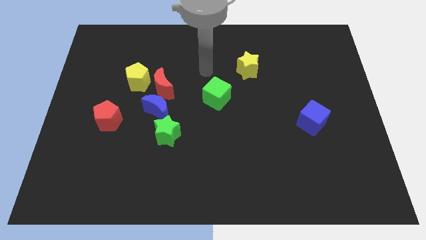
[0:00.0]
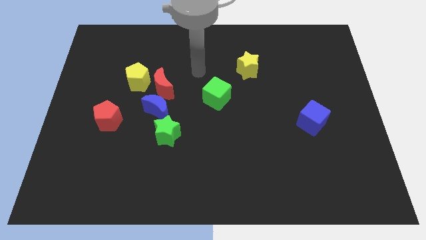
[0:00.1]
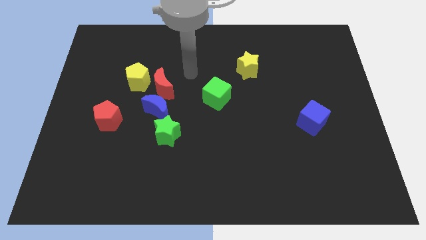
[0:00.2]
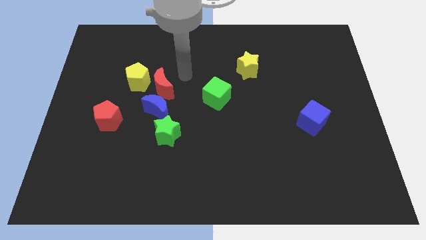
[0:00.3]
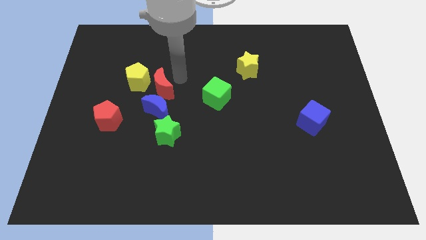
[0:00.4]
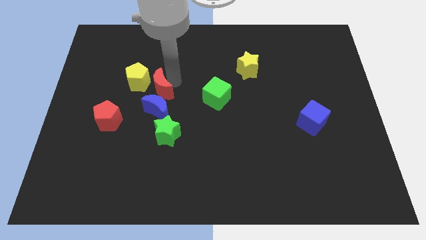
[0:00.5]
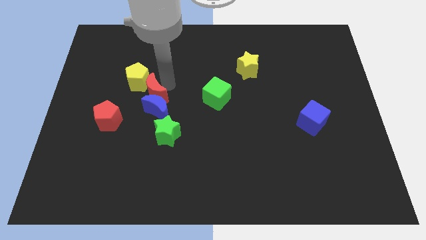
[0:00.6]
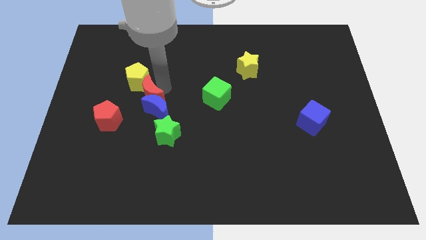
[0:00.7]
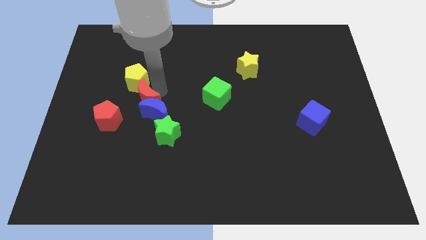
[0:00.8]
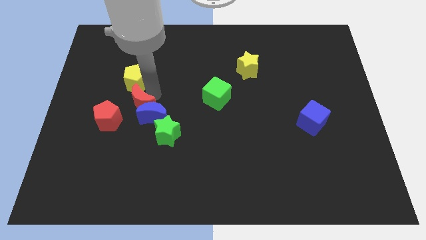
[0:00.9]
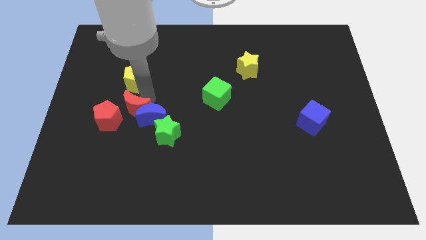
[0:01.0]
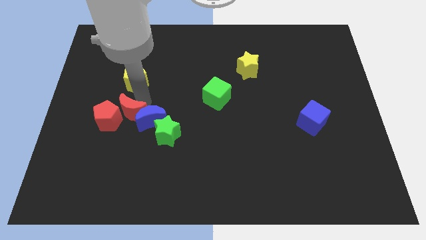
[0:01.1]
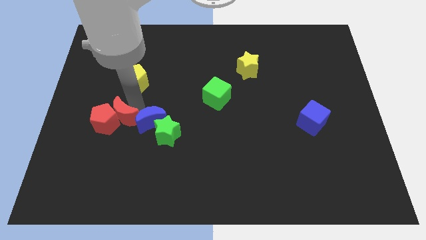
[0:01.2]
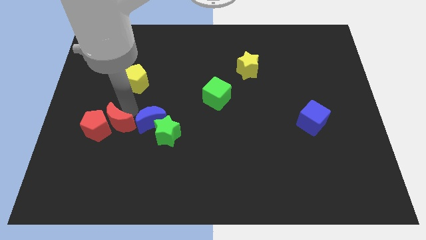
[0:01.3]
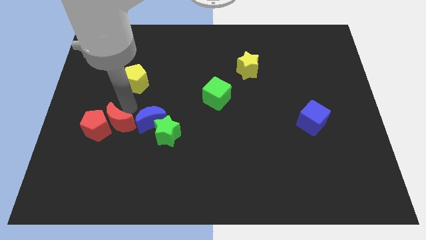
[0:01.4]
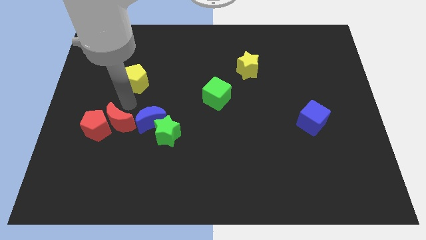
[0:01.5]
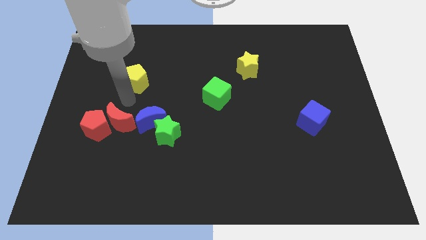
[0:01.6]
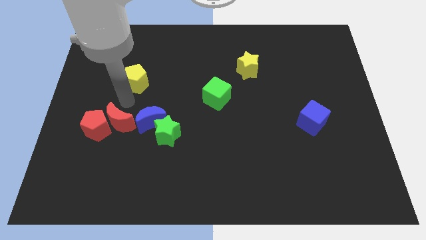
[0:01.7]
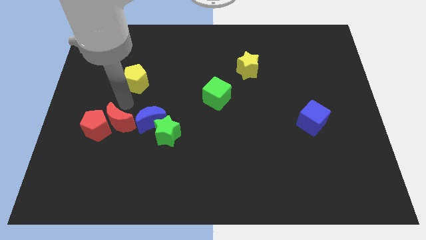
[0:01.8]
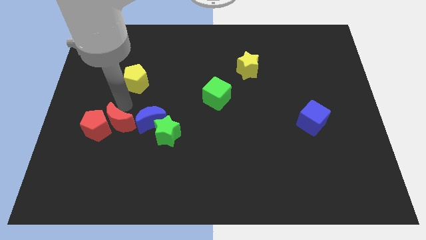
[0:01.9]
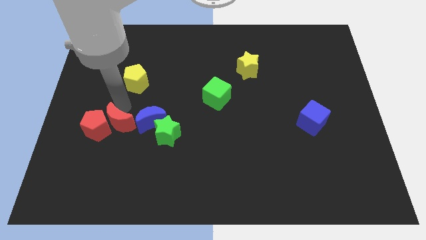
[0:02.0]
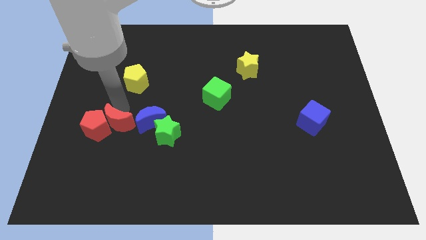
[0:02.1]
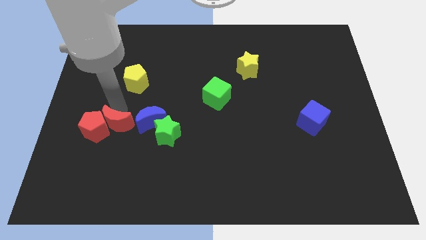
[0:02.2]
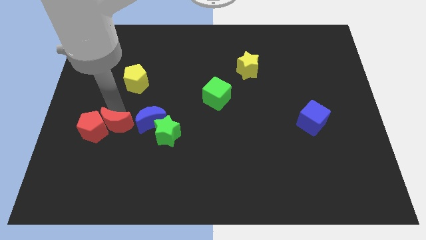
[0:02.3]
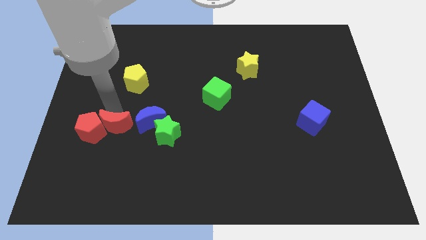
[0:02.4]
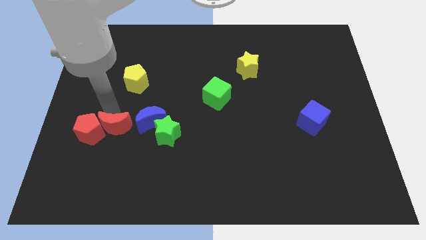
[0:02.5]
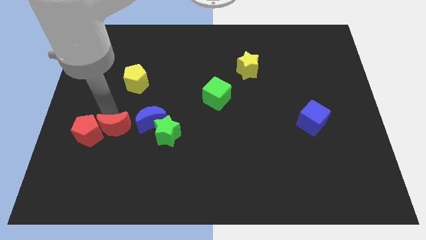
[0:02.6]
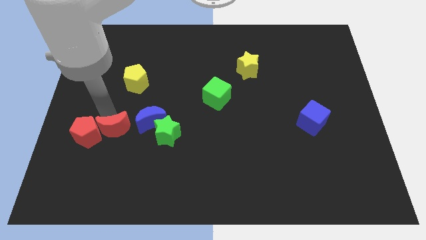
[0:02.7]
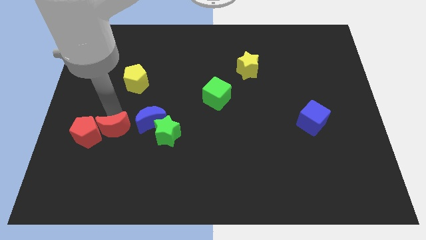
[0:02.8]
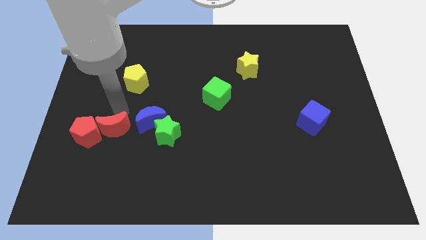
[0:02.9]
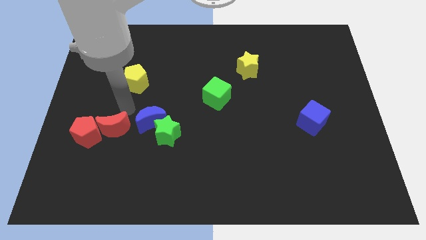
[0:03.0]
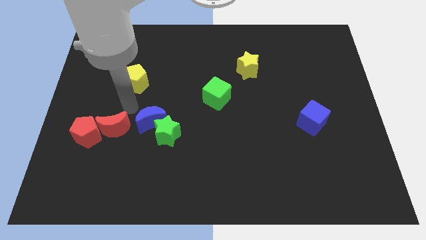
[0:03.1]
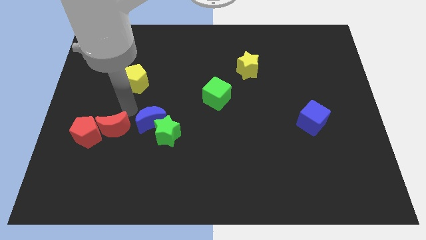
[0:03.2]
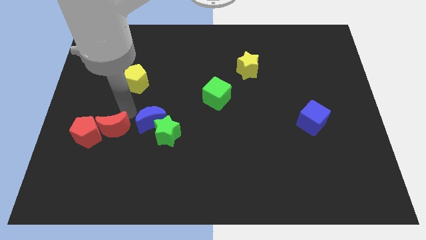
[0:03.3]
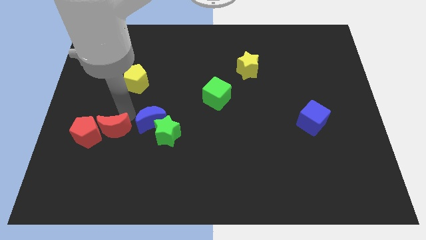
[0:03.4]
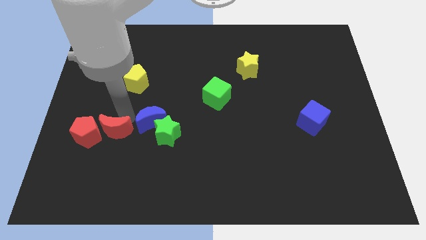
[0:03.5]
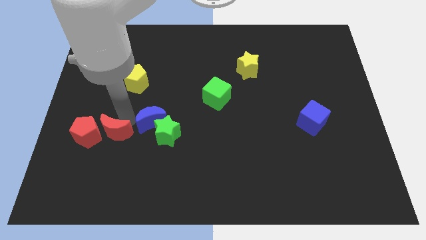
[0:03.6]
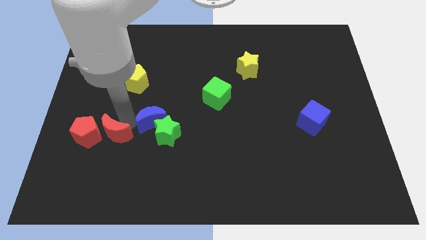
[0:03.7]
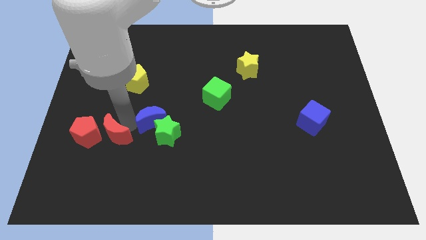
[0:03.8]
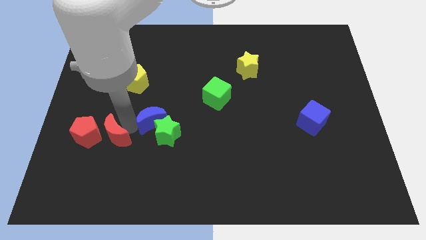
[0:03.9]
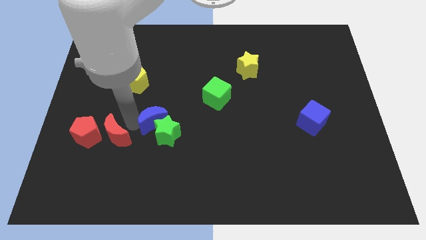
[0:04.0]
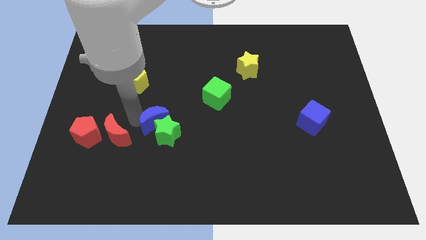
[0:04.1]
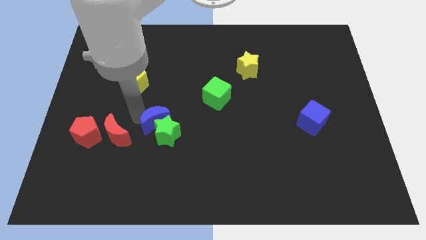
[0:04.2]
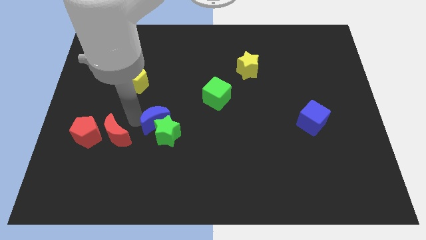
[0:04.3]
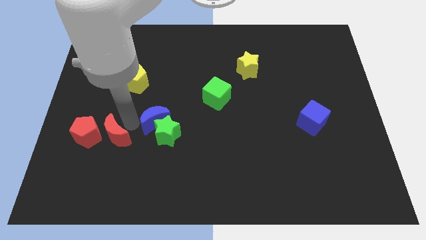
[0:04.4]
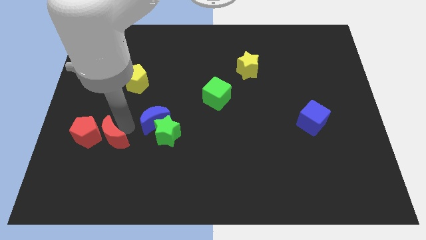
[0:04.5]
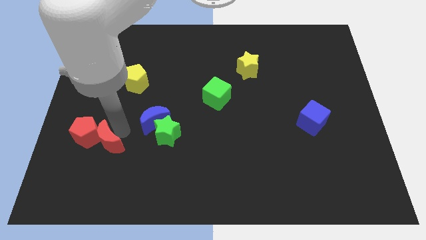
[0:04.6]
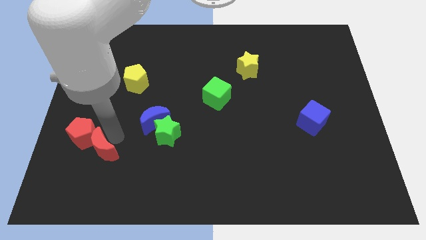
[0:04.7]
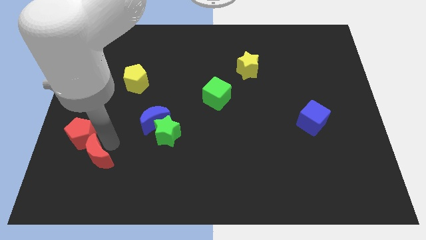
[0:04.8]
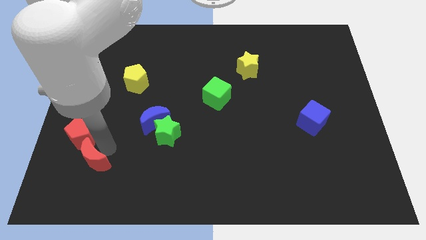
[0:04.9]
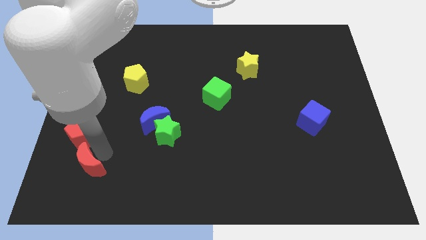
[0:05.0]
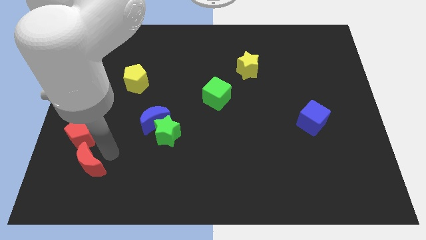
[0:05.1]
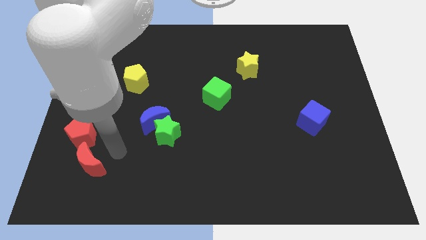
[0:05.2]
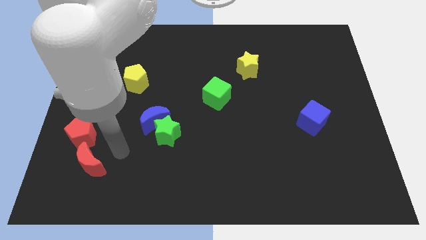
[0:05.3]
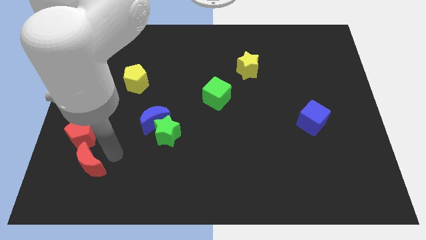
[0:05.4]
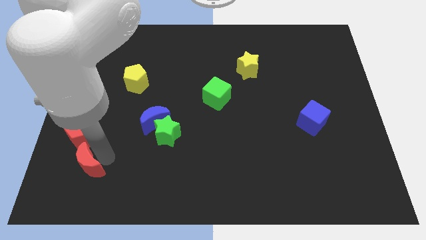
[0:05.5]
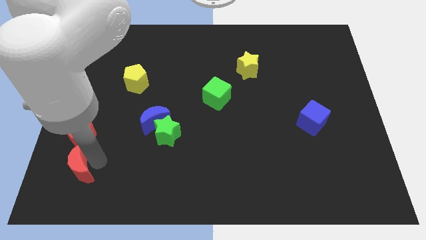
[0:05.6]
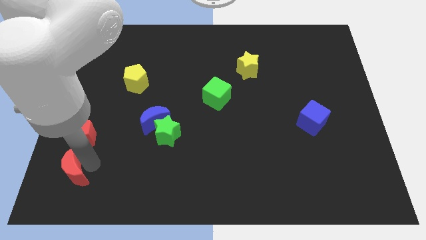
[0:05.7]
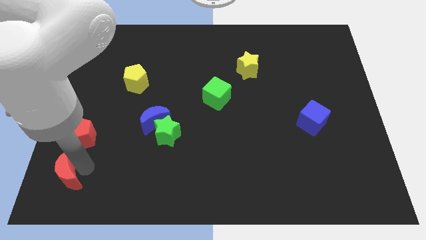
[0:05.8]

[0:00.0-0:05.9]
move the red moon to the bottom left corner

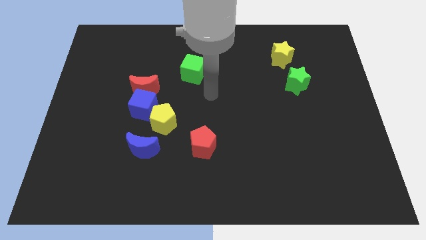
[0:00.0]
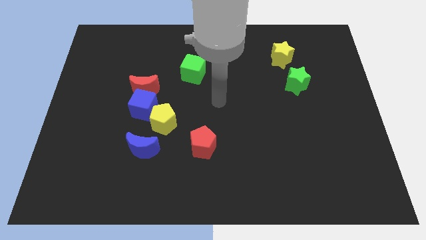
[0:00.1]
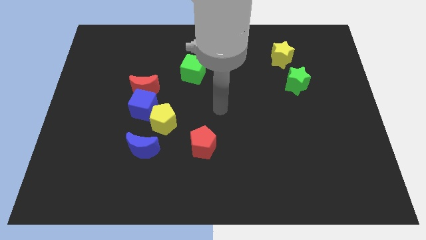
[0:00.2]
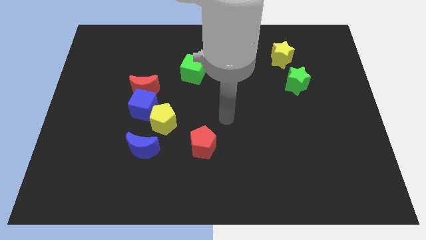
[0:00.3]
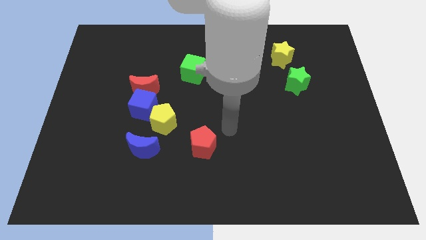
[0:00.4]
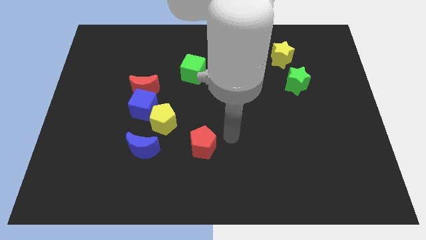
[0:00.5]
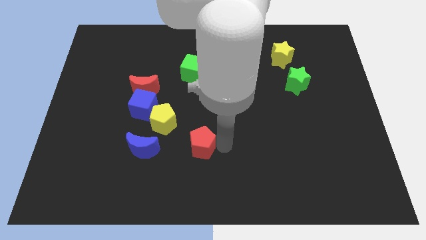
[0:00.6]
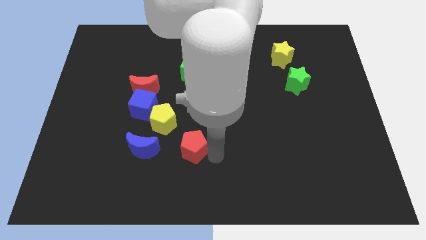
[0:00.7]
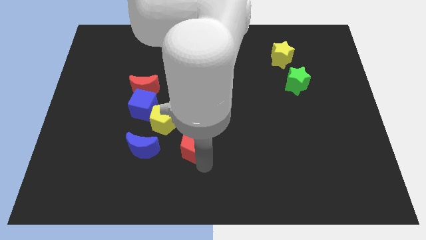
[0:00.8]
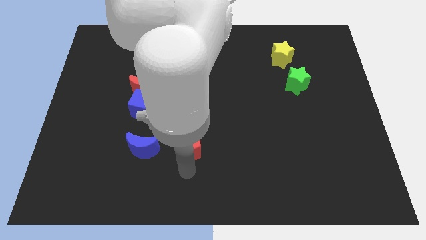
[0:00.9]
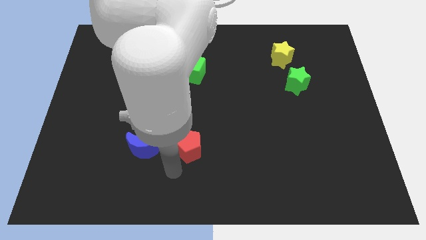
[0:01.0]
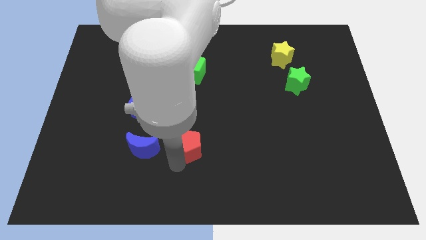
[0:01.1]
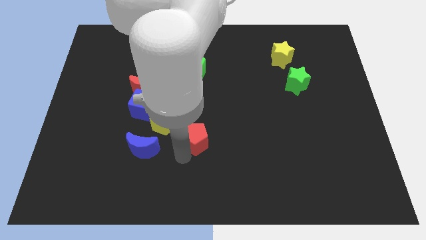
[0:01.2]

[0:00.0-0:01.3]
move the red pentagon to the center
